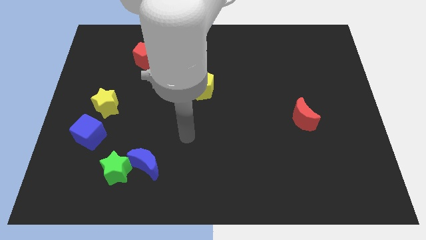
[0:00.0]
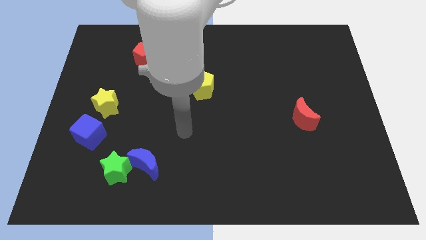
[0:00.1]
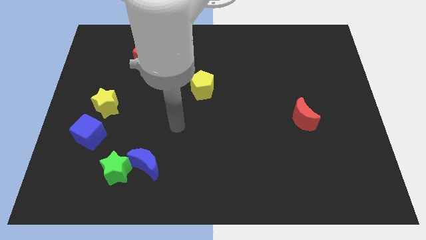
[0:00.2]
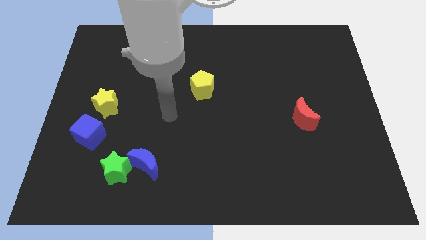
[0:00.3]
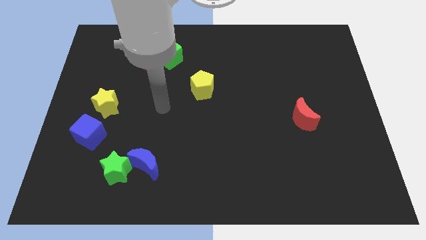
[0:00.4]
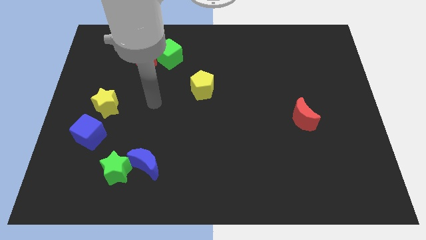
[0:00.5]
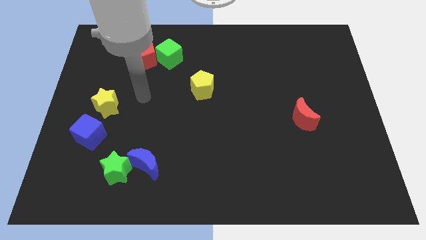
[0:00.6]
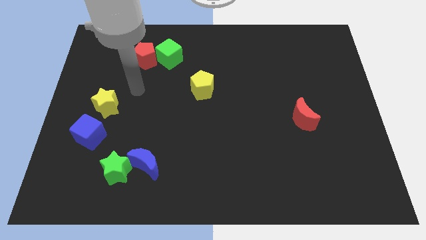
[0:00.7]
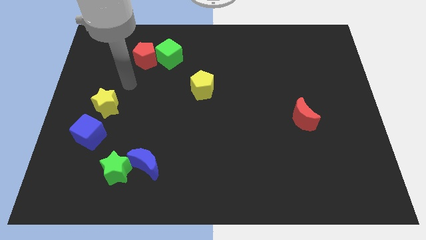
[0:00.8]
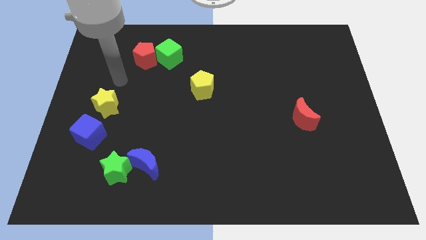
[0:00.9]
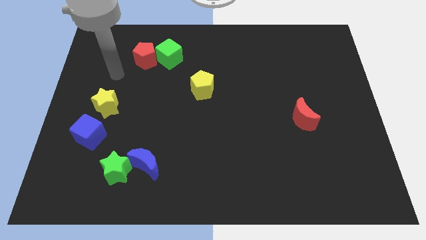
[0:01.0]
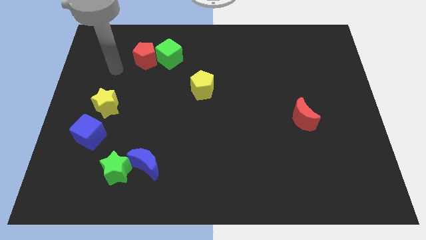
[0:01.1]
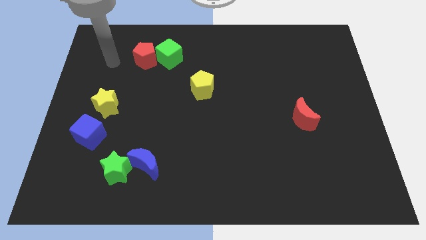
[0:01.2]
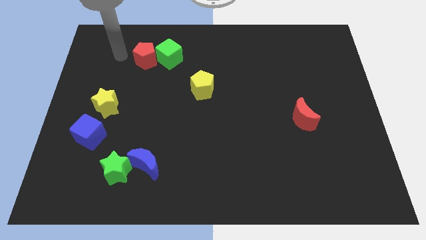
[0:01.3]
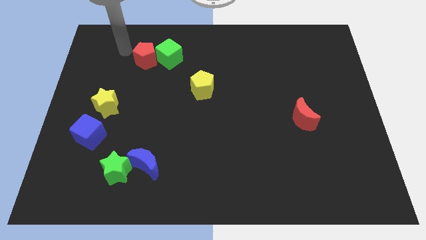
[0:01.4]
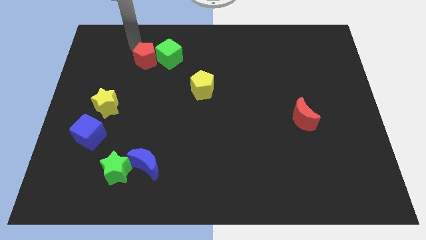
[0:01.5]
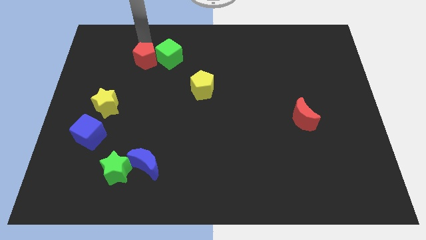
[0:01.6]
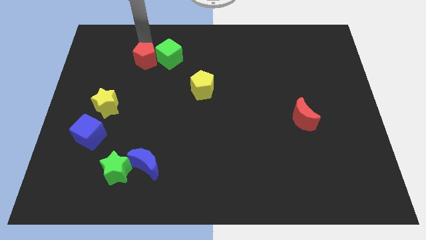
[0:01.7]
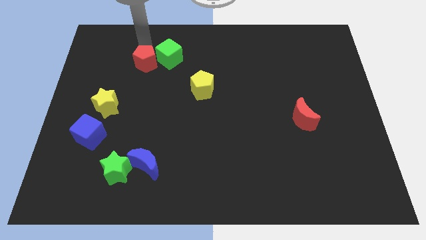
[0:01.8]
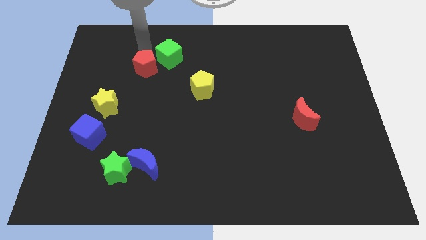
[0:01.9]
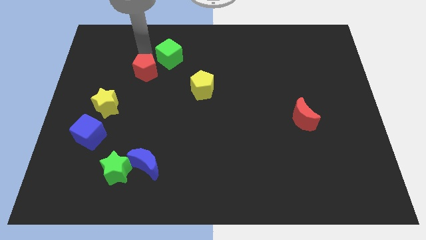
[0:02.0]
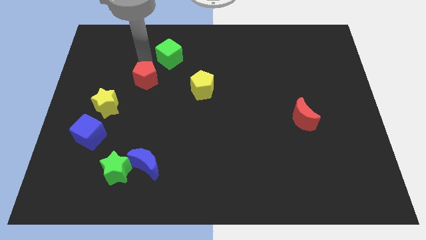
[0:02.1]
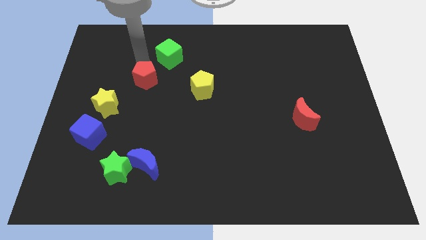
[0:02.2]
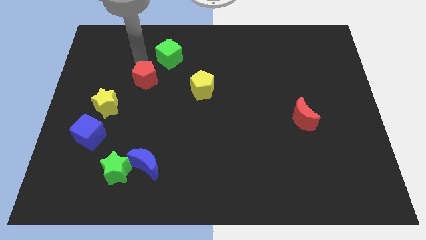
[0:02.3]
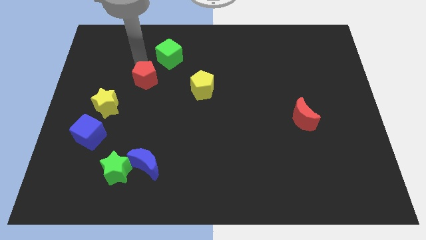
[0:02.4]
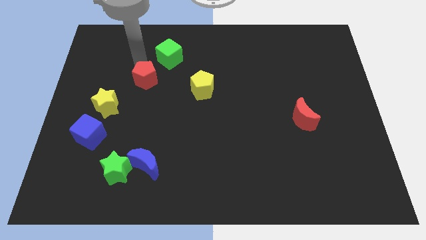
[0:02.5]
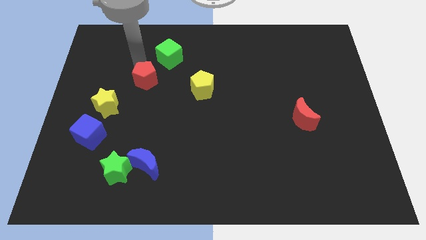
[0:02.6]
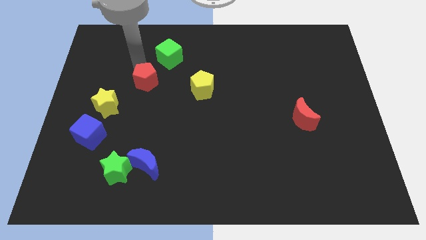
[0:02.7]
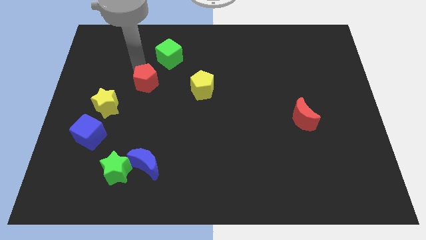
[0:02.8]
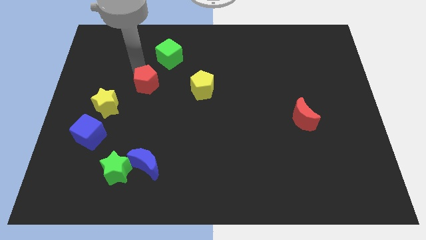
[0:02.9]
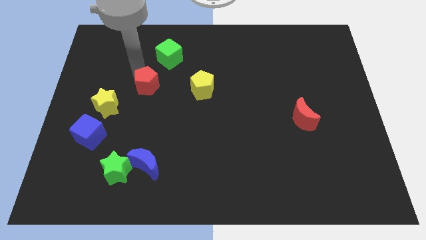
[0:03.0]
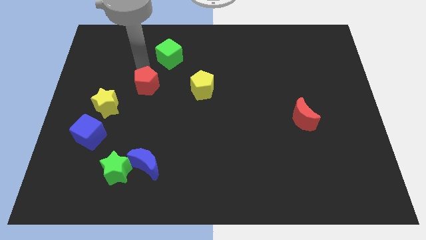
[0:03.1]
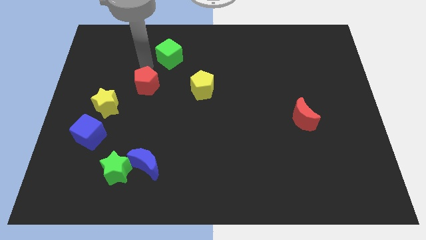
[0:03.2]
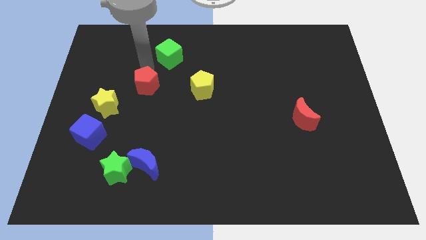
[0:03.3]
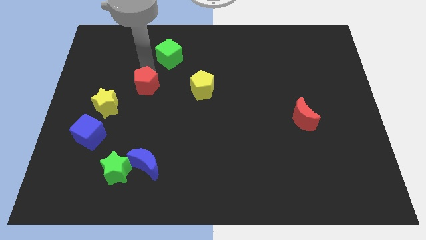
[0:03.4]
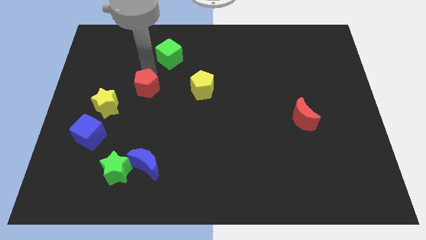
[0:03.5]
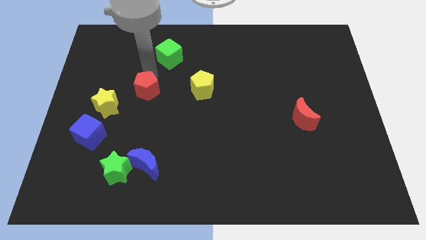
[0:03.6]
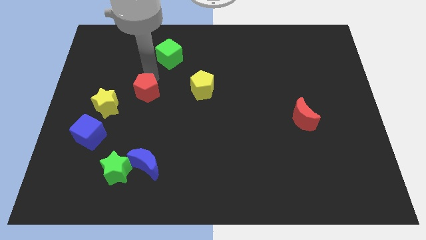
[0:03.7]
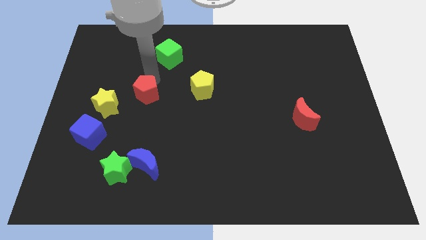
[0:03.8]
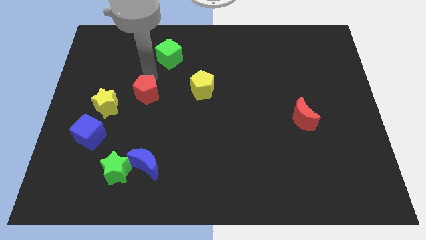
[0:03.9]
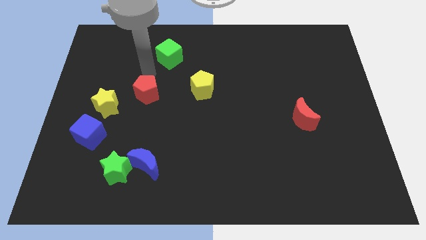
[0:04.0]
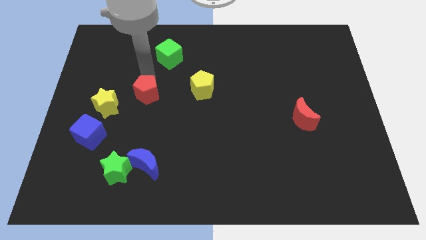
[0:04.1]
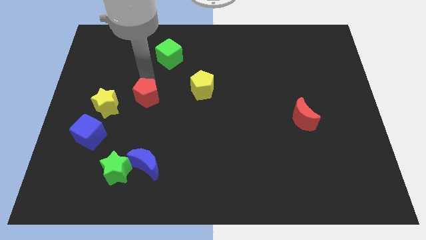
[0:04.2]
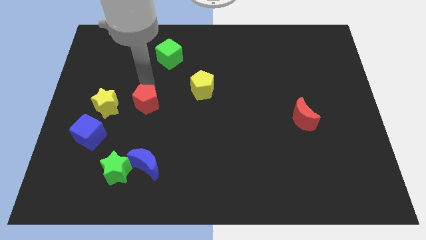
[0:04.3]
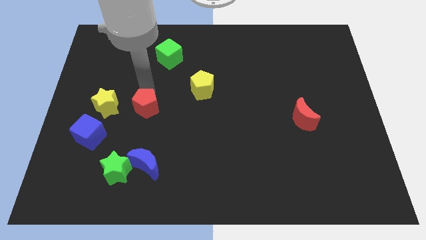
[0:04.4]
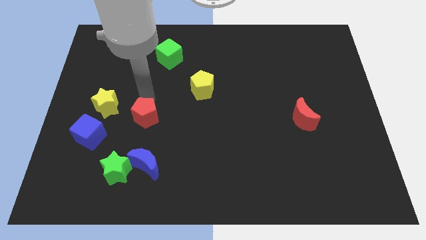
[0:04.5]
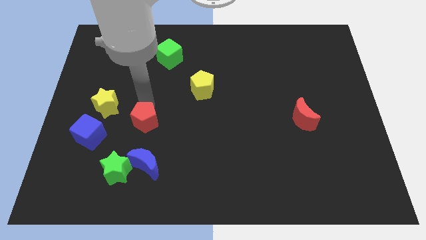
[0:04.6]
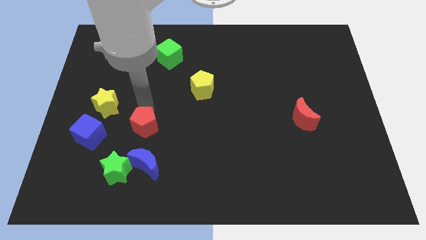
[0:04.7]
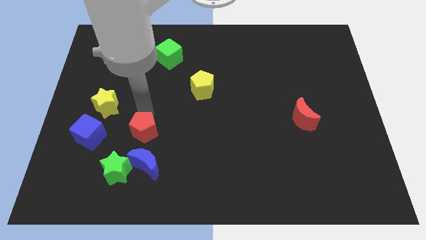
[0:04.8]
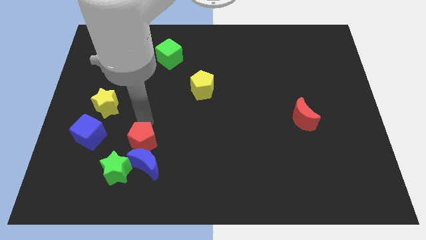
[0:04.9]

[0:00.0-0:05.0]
move the red pentagon towards the blue moon

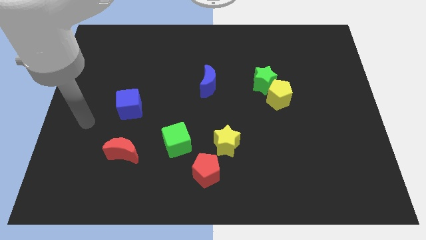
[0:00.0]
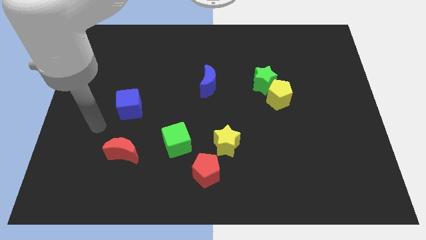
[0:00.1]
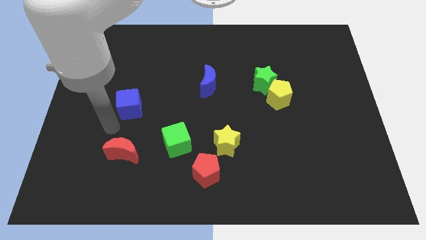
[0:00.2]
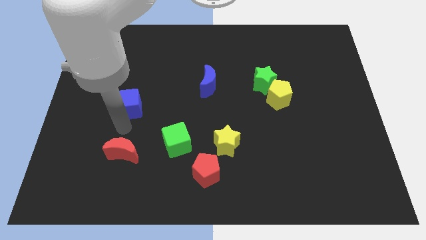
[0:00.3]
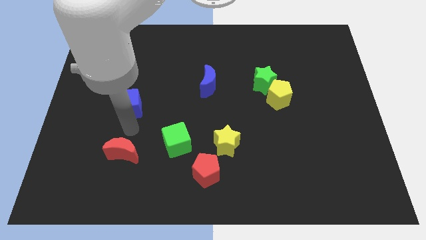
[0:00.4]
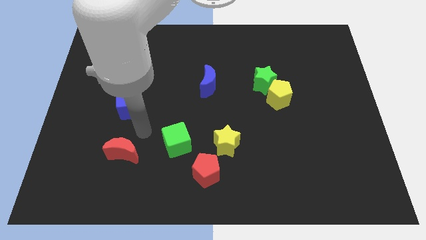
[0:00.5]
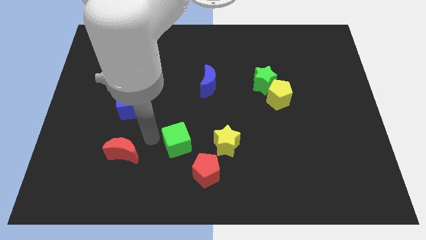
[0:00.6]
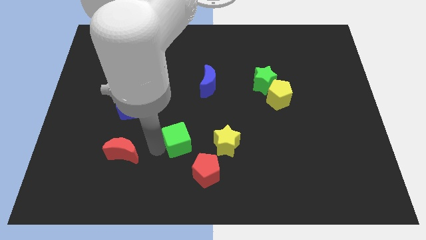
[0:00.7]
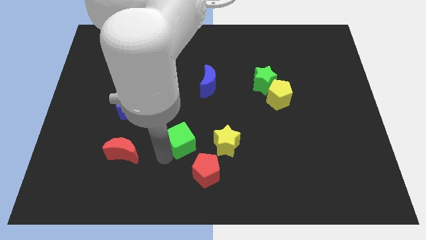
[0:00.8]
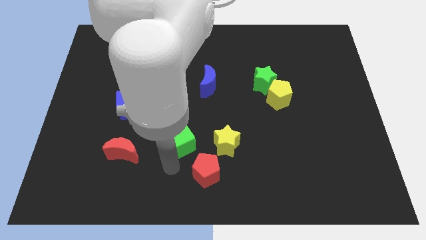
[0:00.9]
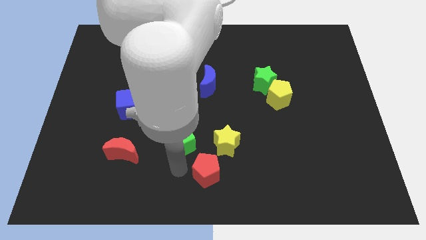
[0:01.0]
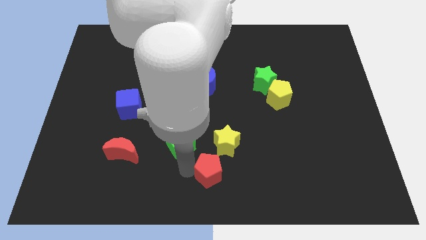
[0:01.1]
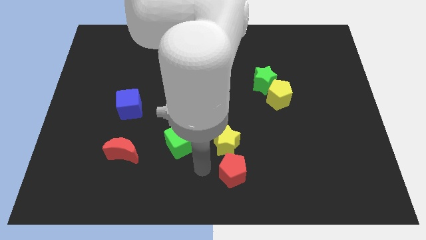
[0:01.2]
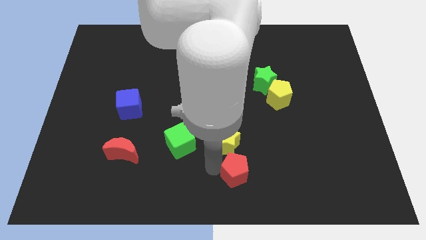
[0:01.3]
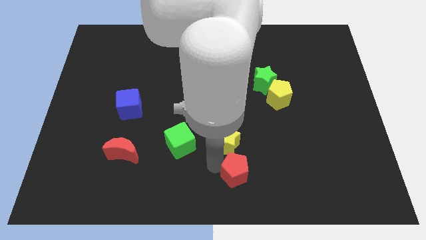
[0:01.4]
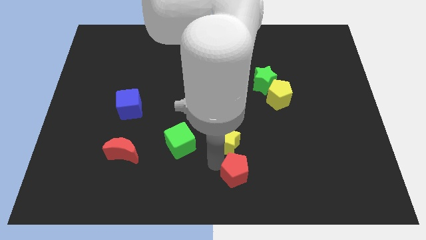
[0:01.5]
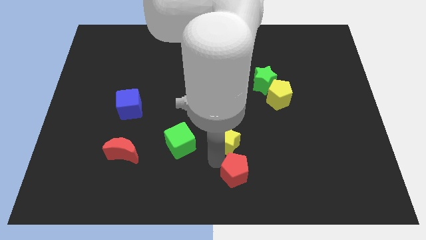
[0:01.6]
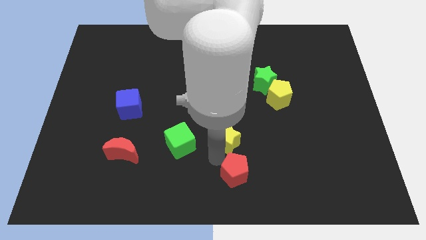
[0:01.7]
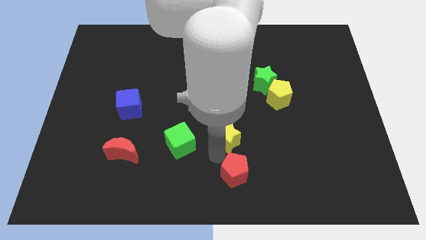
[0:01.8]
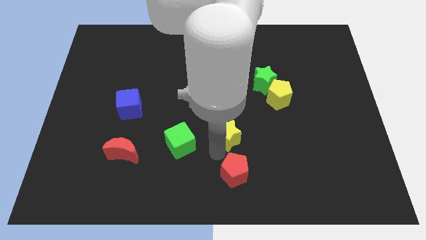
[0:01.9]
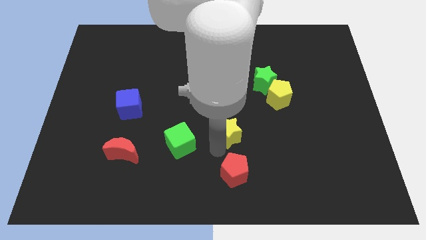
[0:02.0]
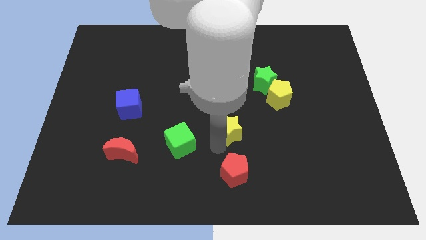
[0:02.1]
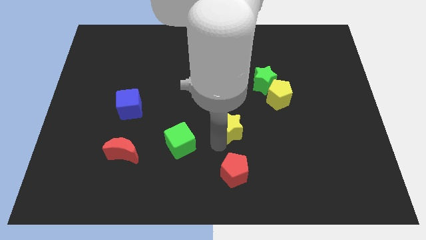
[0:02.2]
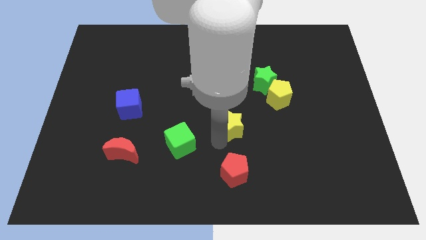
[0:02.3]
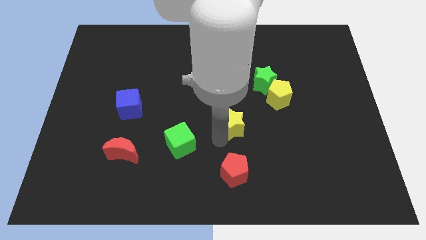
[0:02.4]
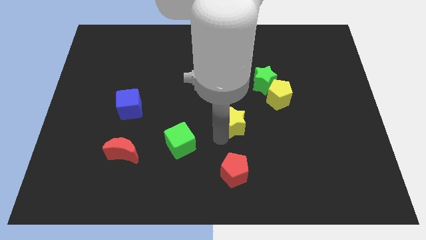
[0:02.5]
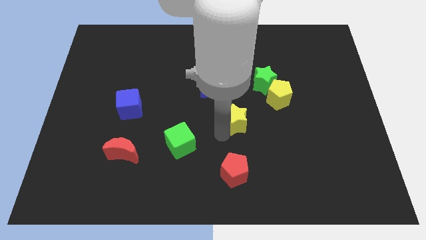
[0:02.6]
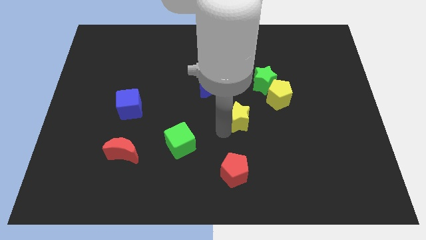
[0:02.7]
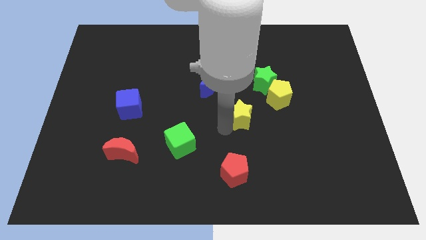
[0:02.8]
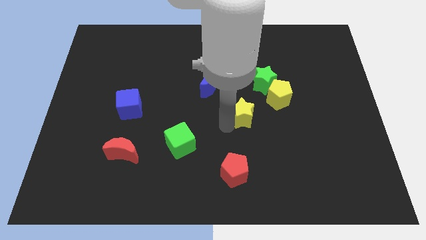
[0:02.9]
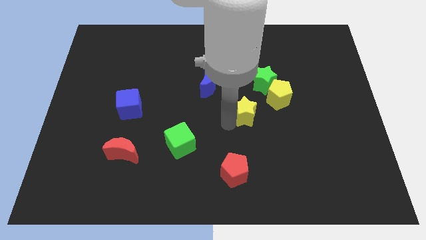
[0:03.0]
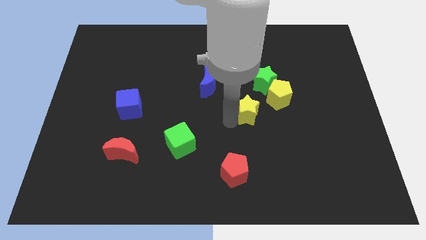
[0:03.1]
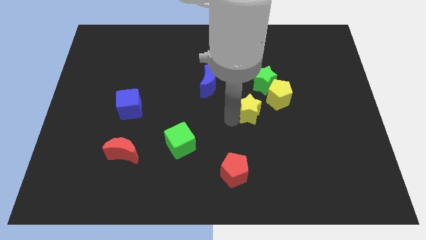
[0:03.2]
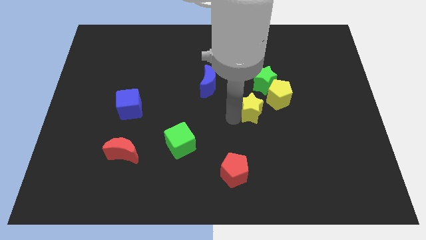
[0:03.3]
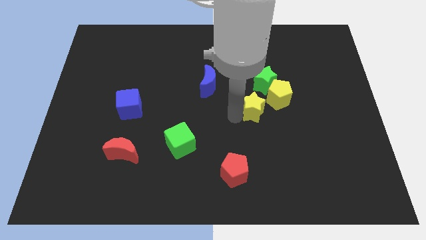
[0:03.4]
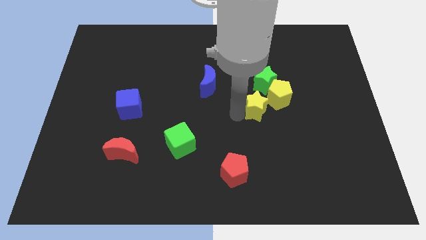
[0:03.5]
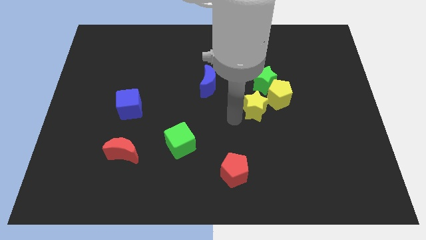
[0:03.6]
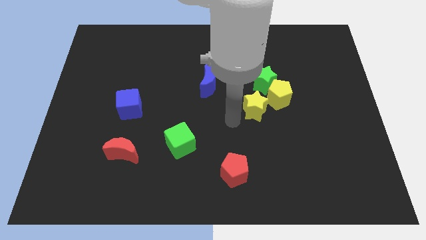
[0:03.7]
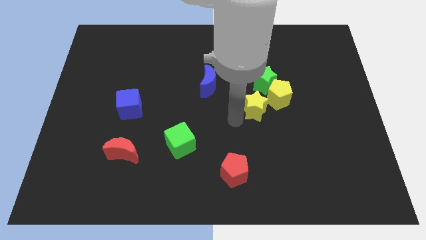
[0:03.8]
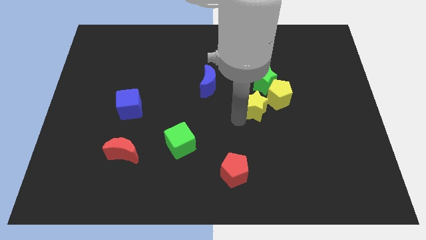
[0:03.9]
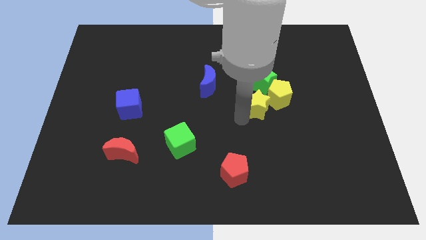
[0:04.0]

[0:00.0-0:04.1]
put the yellow star close to the yellow pentagon
